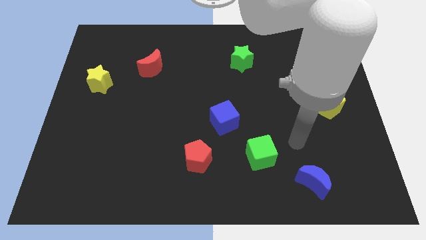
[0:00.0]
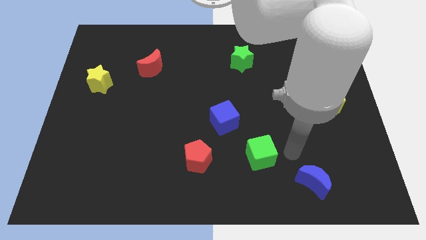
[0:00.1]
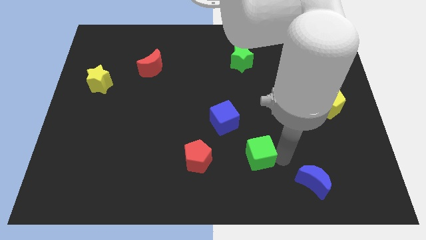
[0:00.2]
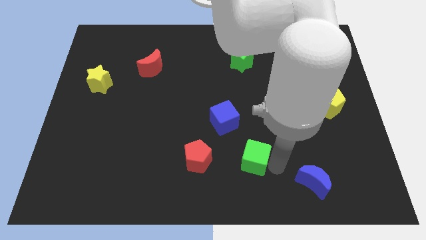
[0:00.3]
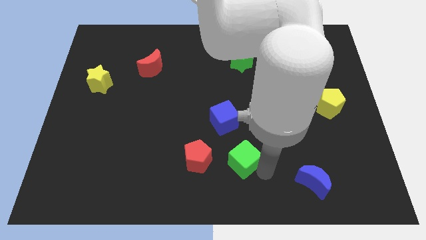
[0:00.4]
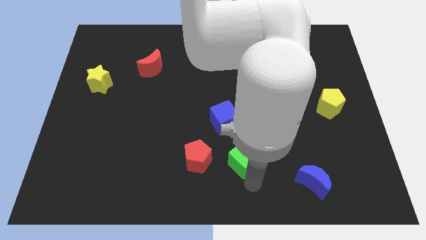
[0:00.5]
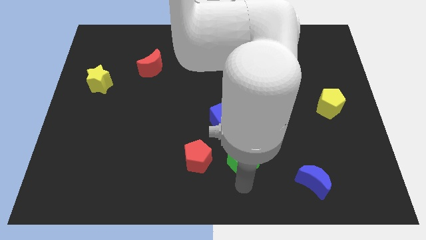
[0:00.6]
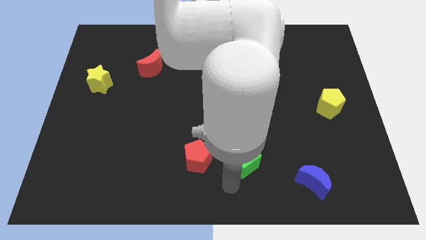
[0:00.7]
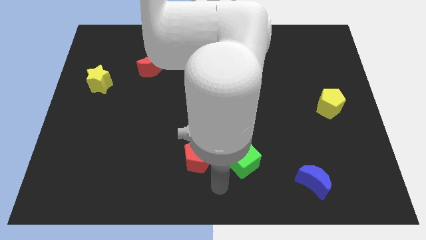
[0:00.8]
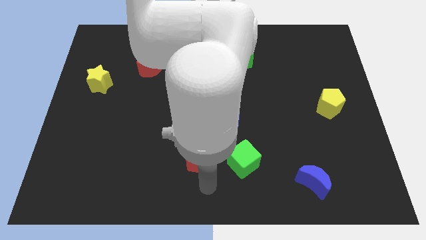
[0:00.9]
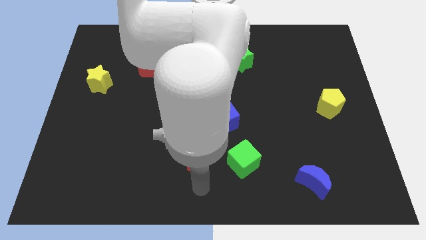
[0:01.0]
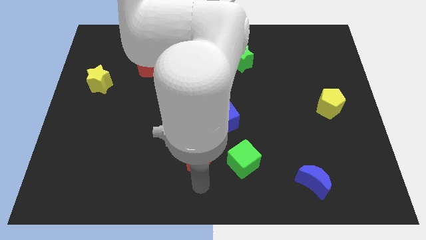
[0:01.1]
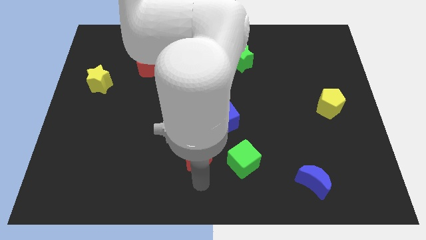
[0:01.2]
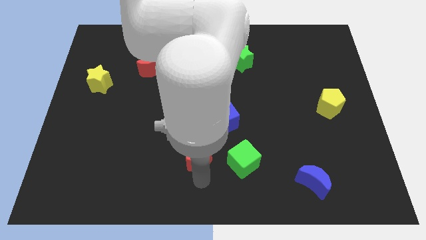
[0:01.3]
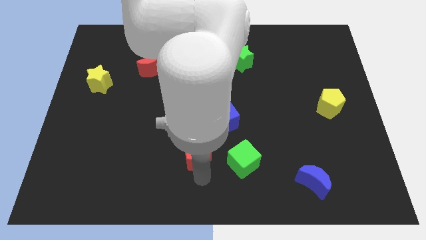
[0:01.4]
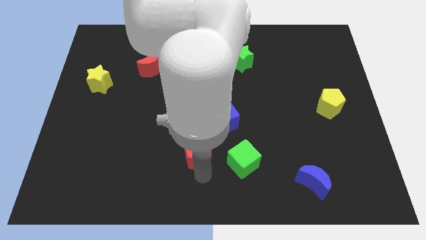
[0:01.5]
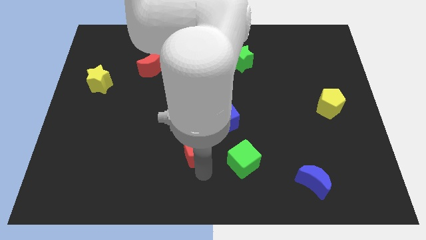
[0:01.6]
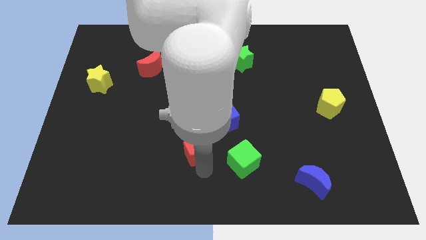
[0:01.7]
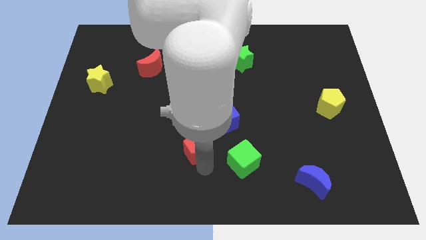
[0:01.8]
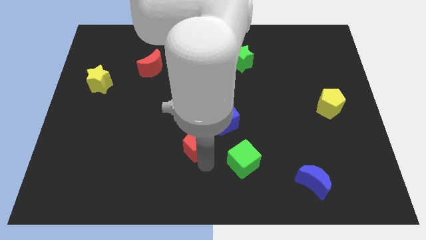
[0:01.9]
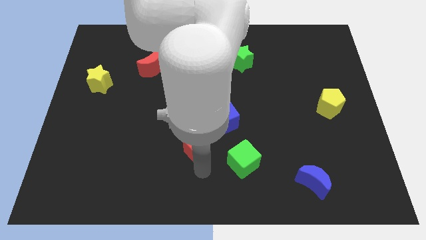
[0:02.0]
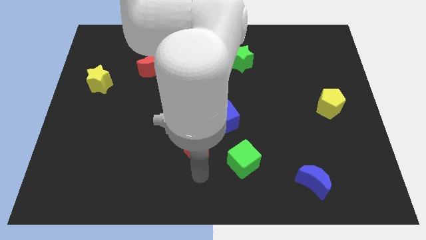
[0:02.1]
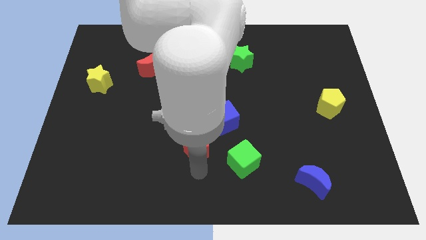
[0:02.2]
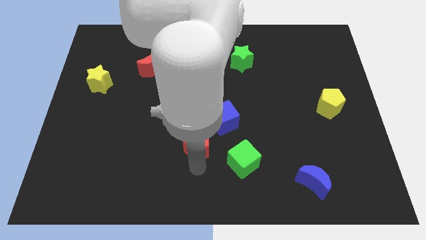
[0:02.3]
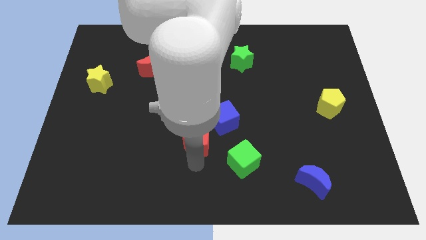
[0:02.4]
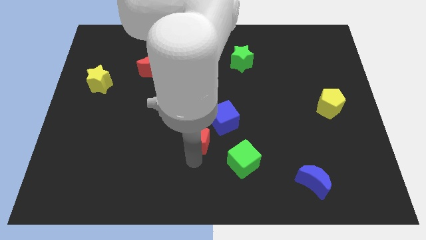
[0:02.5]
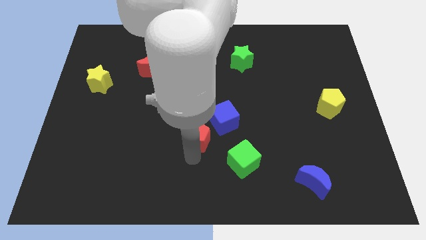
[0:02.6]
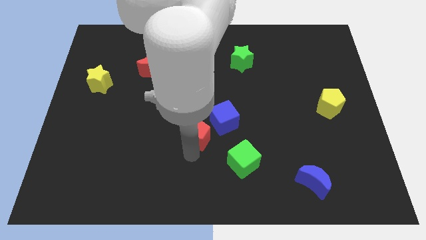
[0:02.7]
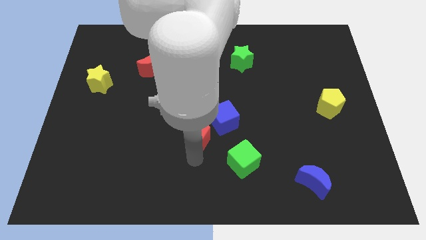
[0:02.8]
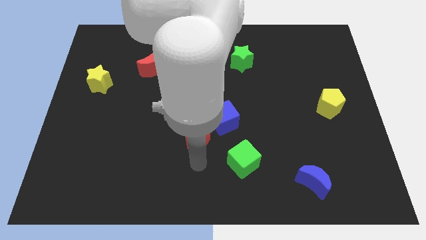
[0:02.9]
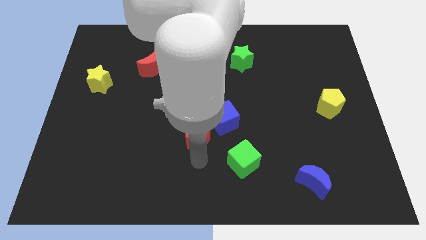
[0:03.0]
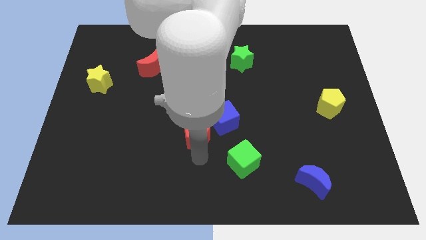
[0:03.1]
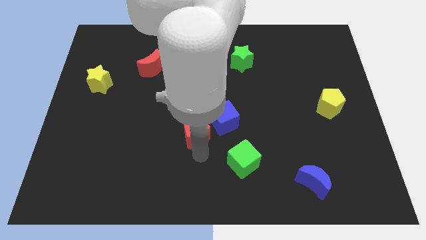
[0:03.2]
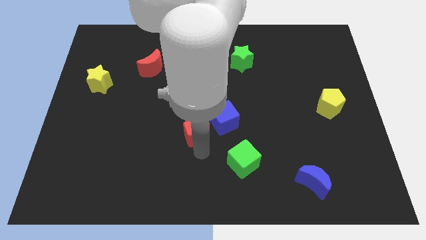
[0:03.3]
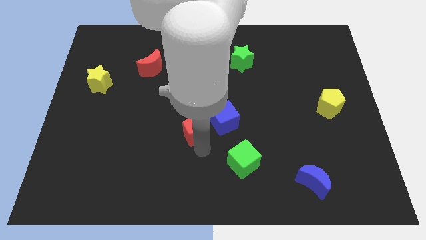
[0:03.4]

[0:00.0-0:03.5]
push the red pentagon upwards somewhat

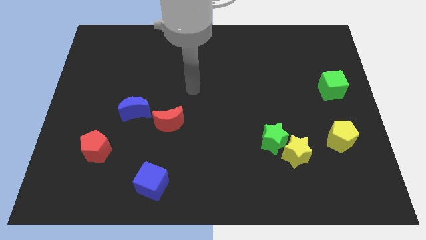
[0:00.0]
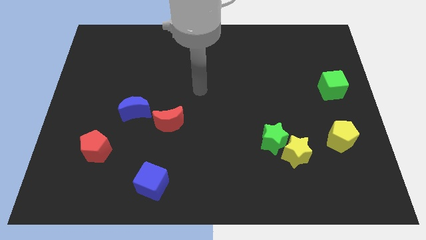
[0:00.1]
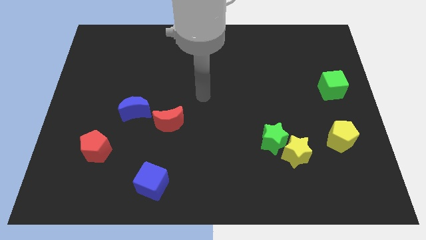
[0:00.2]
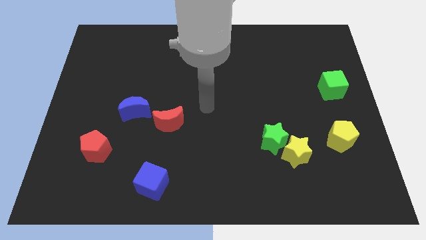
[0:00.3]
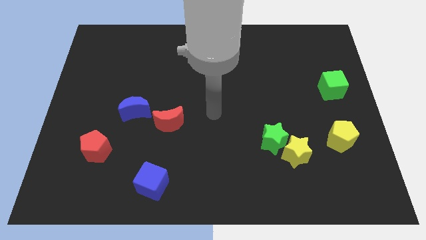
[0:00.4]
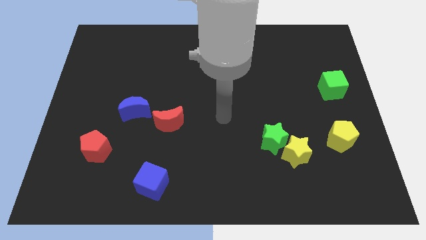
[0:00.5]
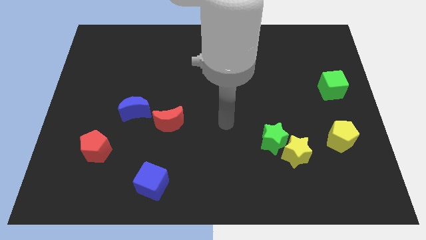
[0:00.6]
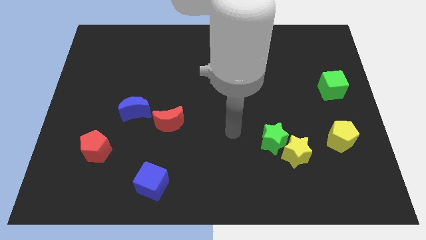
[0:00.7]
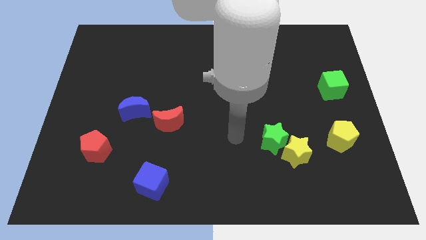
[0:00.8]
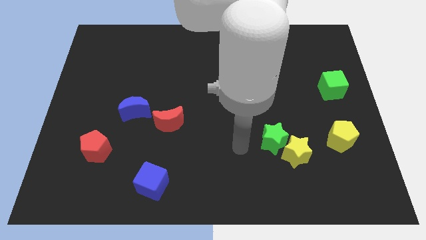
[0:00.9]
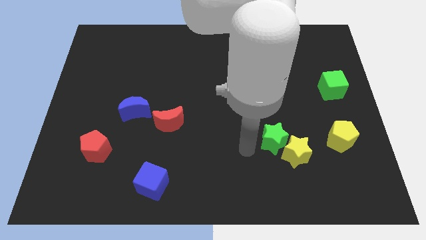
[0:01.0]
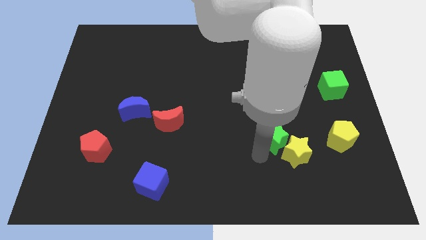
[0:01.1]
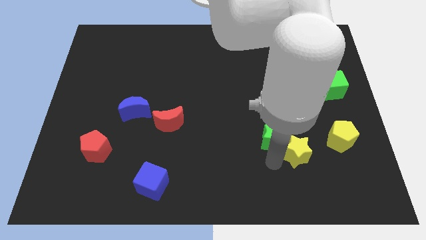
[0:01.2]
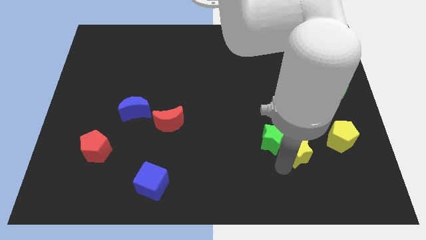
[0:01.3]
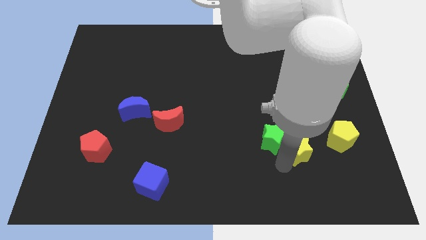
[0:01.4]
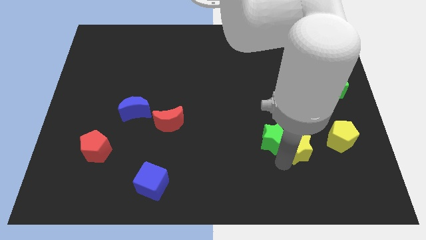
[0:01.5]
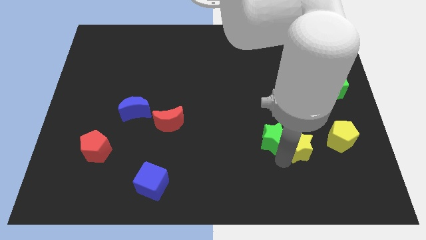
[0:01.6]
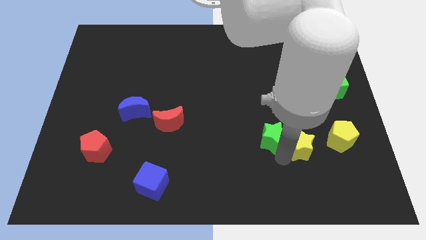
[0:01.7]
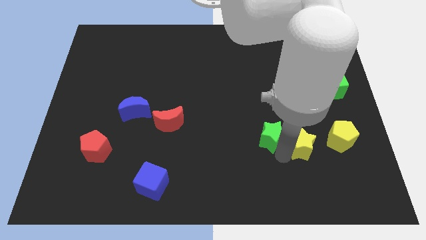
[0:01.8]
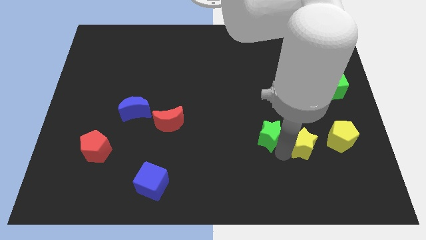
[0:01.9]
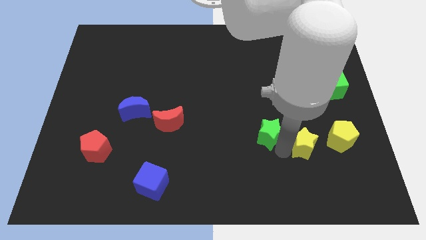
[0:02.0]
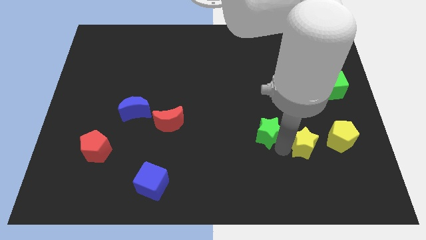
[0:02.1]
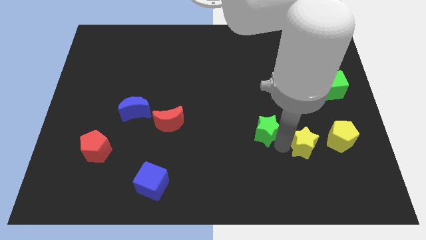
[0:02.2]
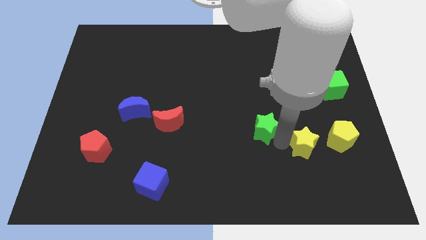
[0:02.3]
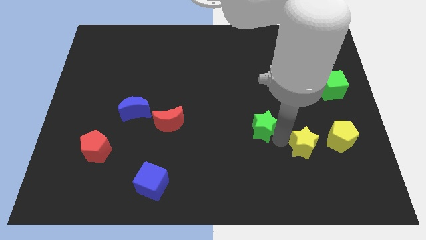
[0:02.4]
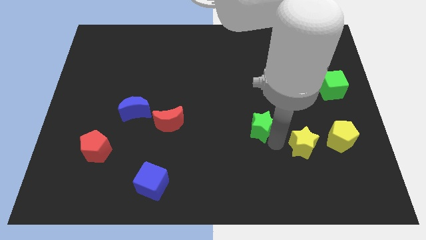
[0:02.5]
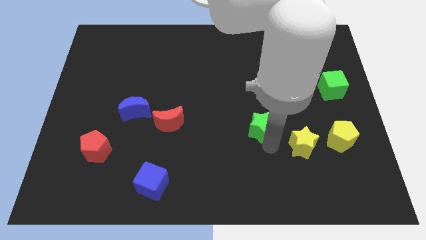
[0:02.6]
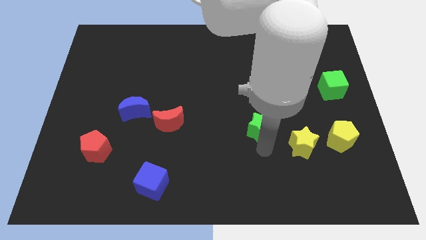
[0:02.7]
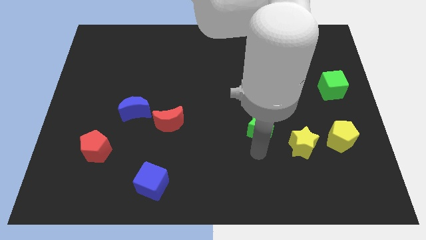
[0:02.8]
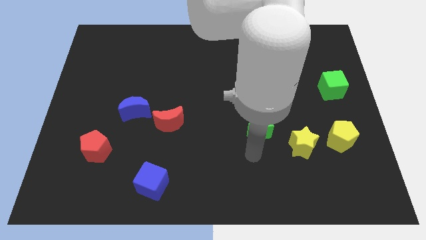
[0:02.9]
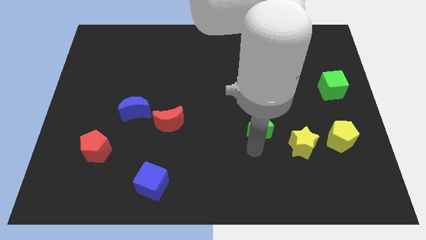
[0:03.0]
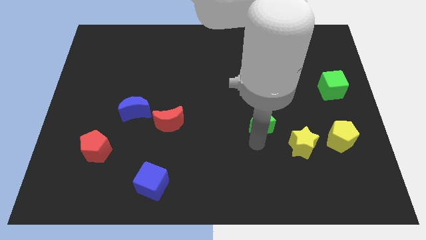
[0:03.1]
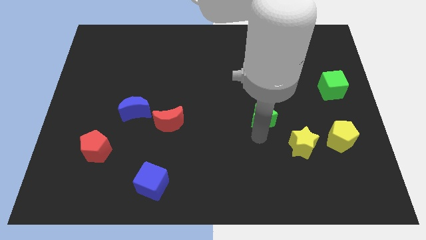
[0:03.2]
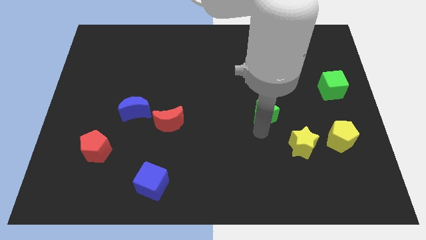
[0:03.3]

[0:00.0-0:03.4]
move the green star upwards a bit

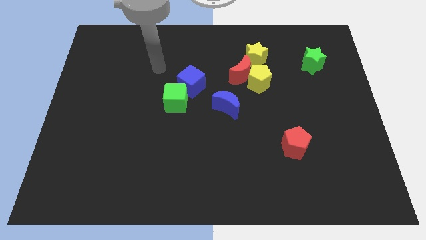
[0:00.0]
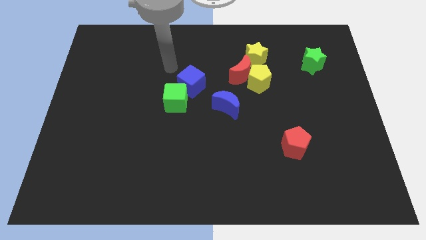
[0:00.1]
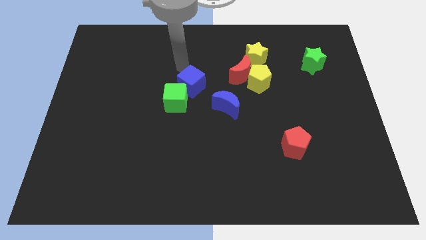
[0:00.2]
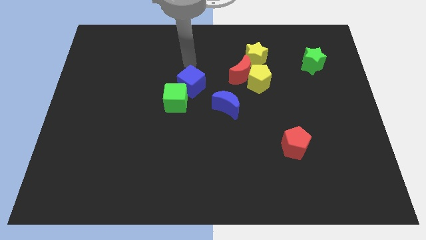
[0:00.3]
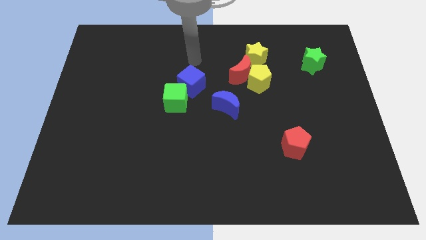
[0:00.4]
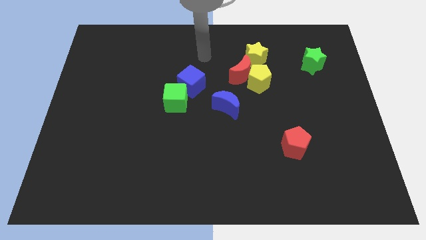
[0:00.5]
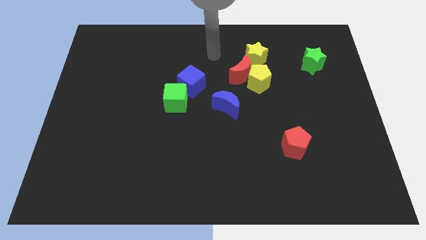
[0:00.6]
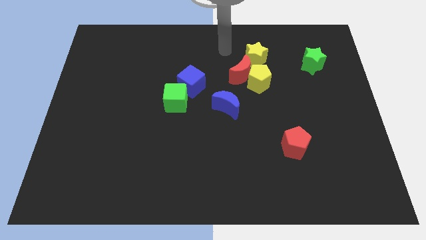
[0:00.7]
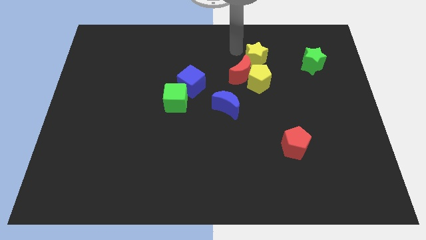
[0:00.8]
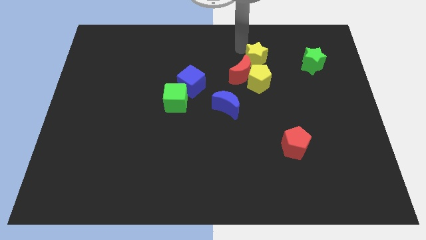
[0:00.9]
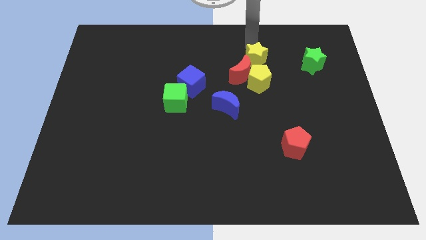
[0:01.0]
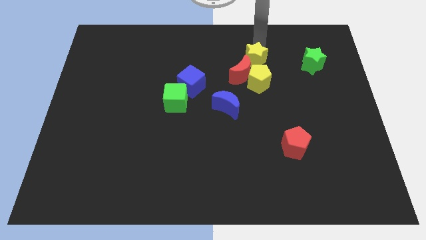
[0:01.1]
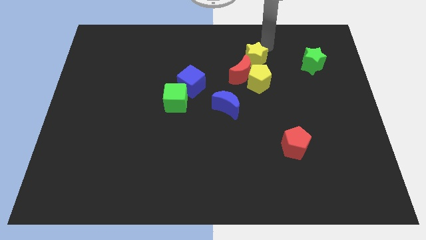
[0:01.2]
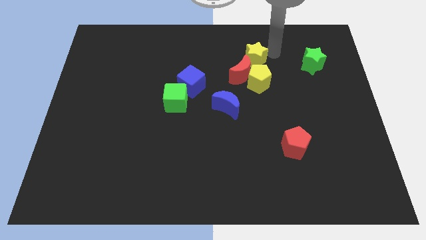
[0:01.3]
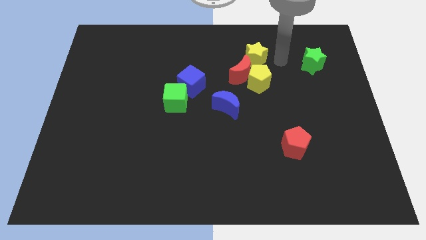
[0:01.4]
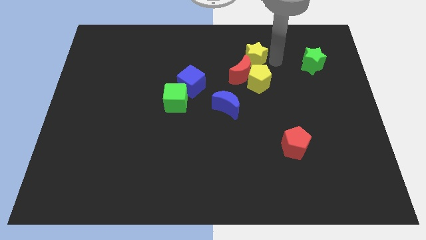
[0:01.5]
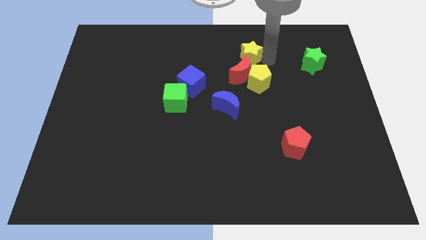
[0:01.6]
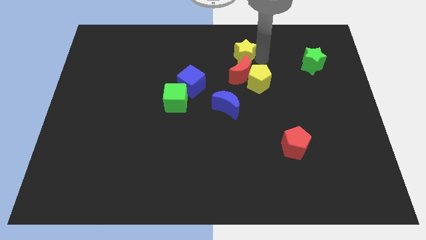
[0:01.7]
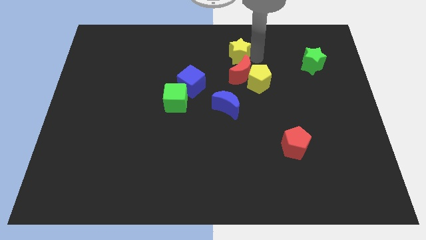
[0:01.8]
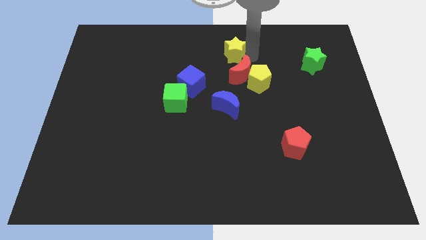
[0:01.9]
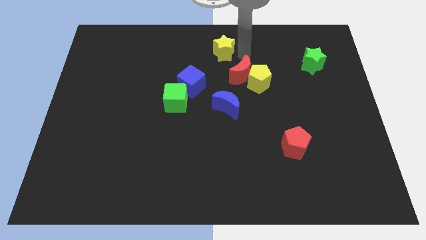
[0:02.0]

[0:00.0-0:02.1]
push the yellow star left somewhat
